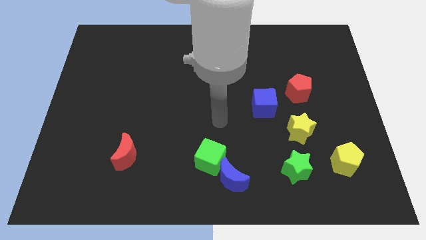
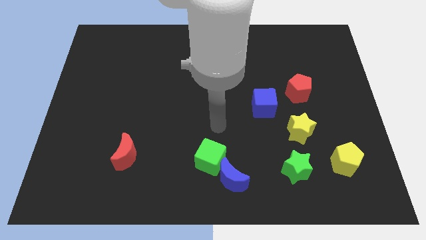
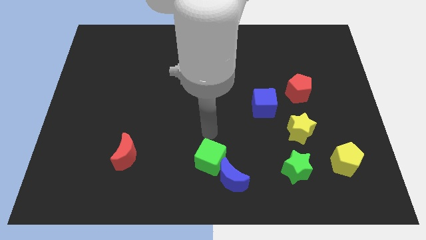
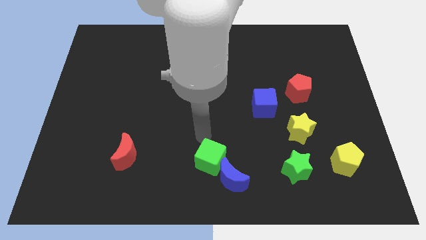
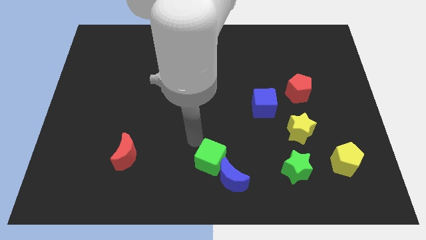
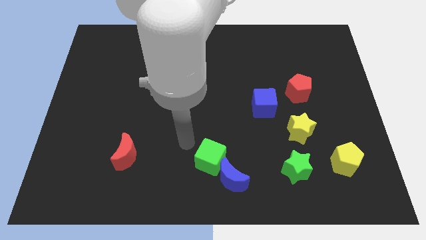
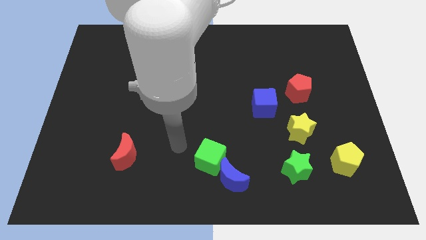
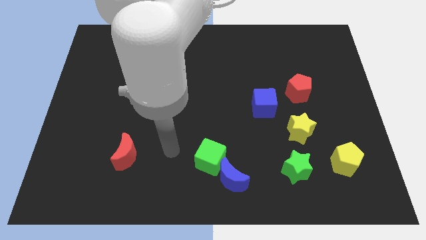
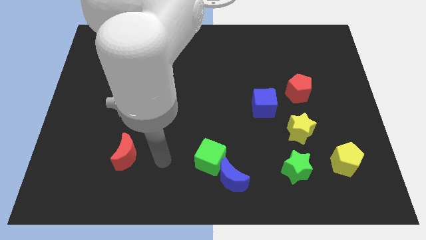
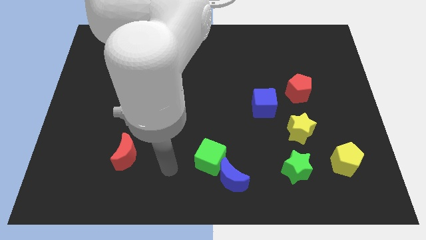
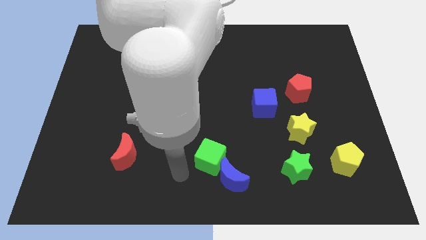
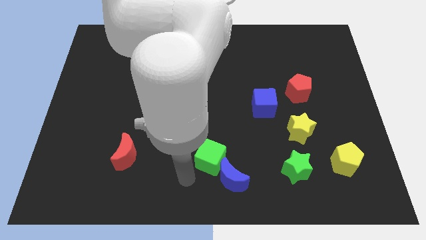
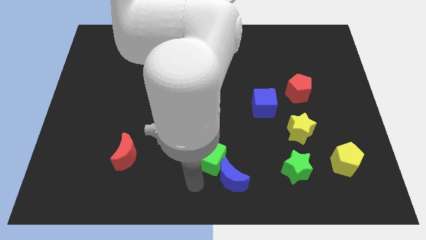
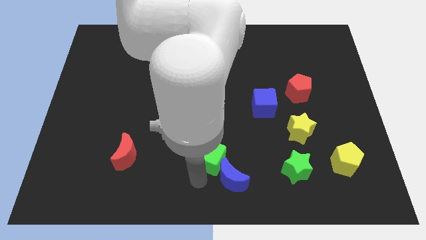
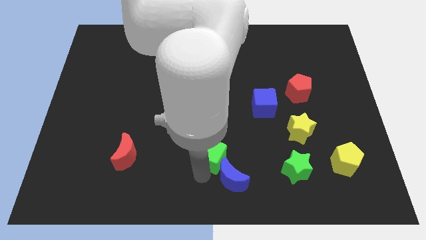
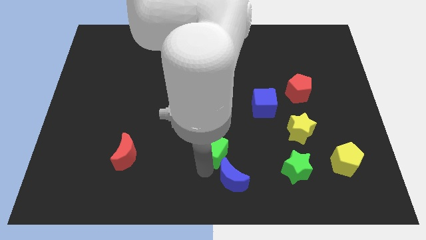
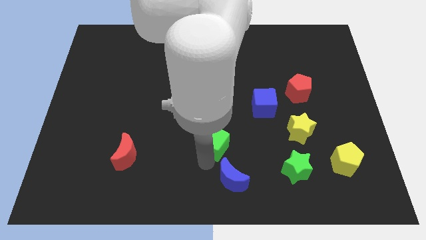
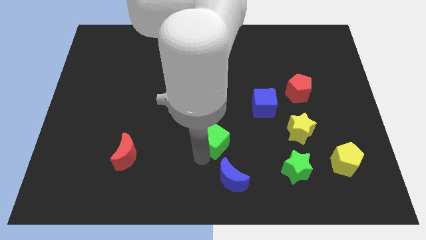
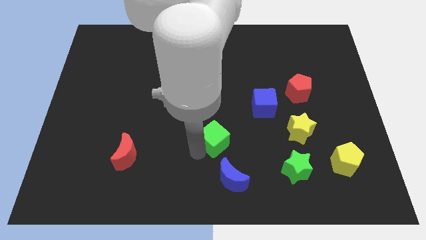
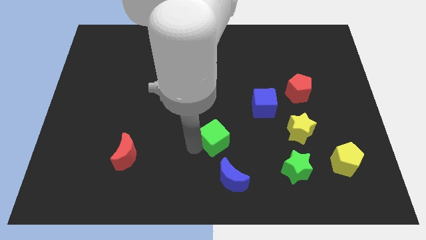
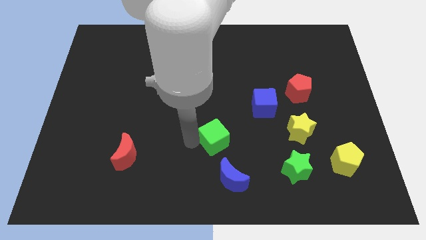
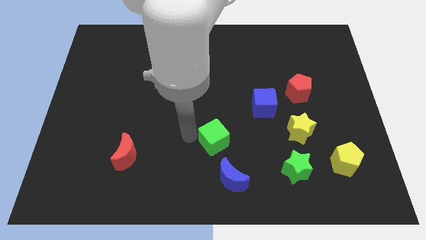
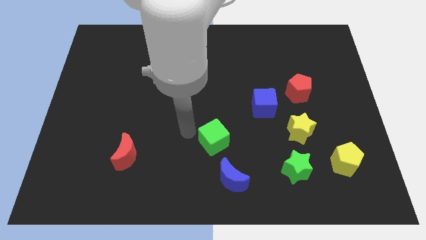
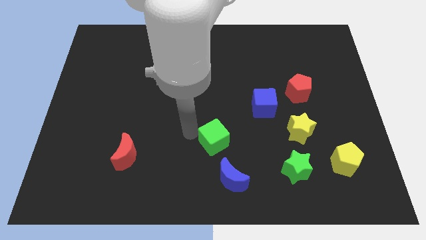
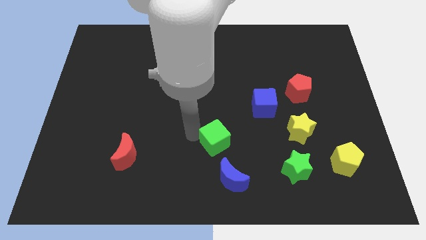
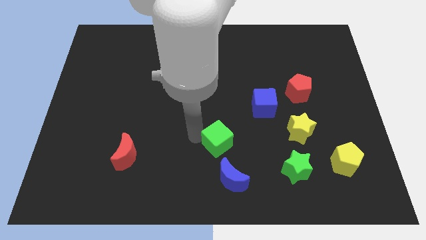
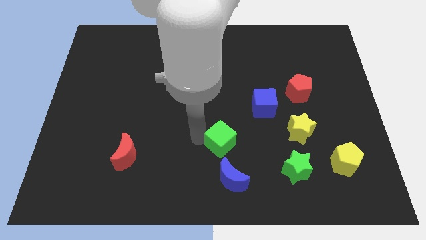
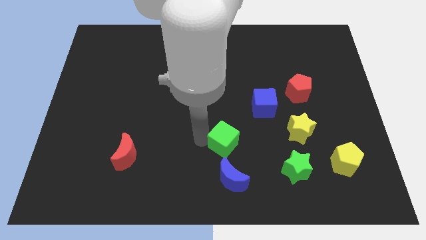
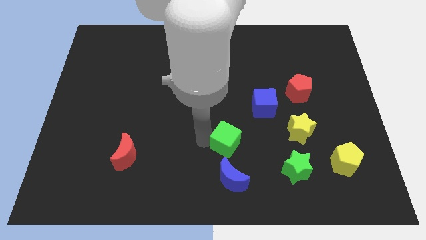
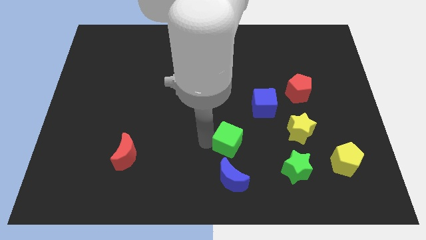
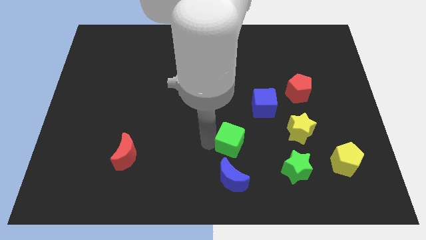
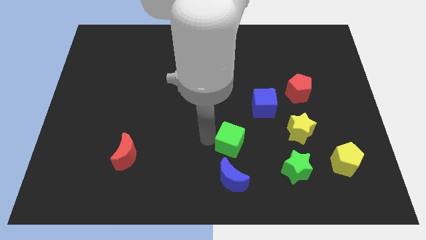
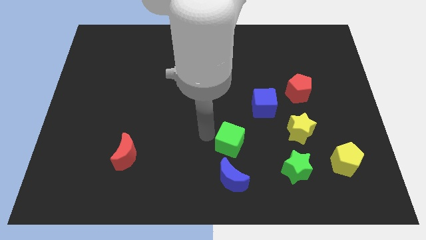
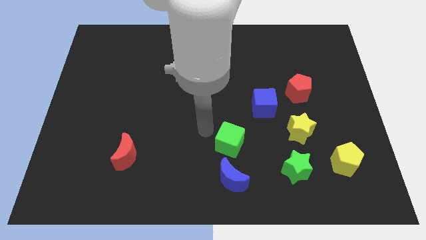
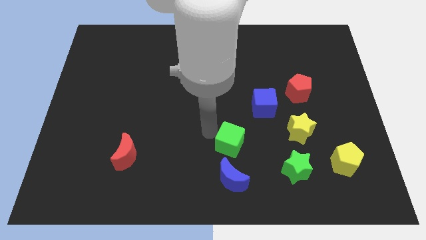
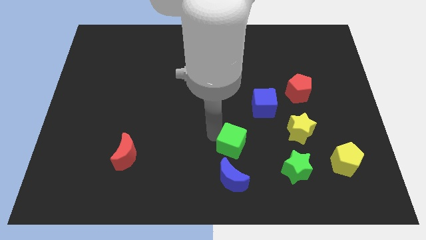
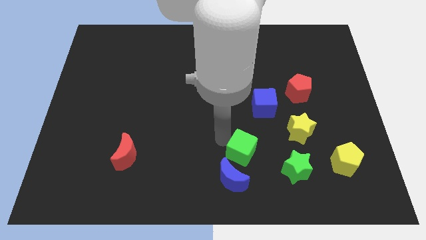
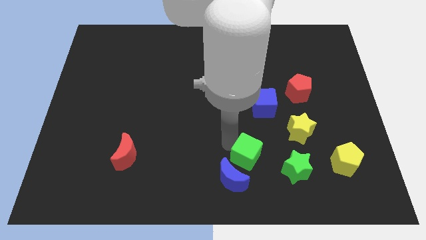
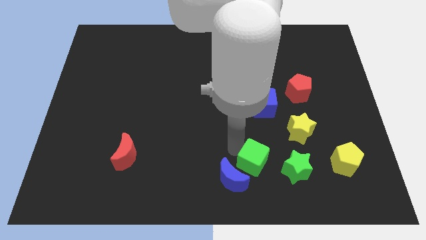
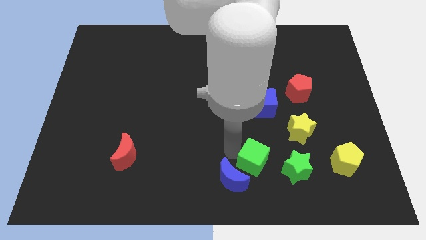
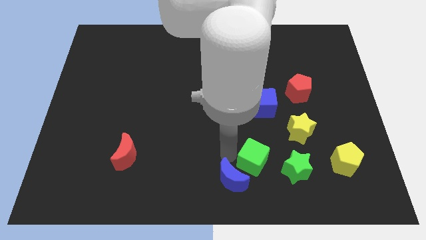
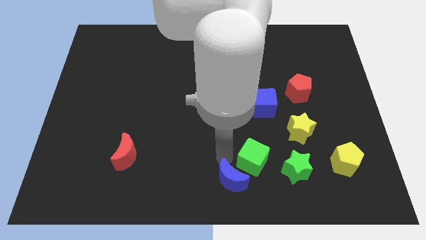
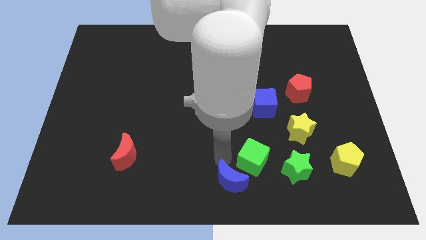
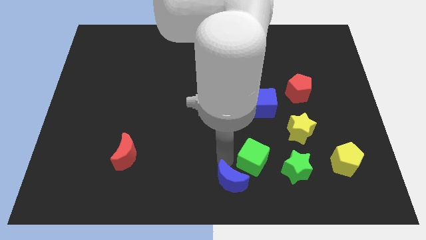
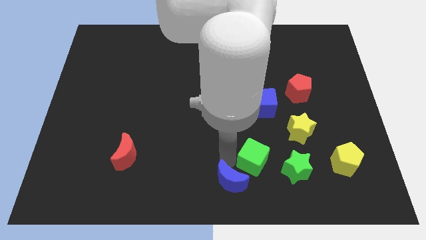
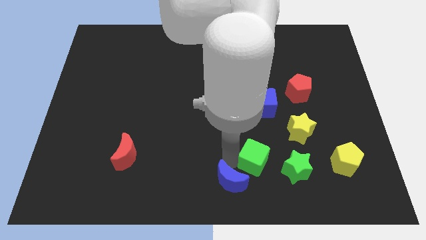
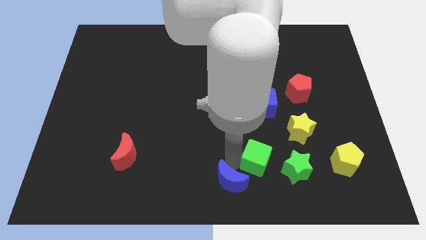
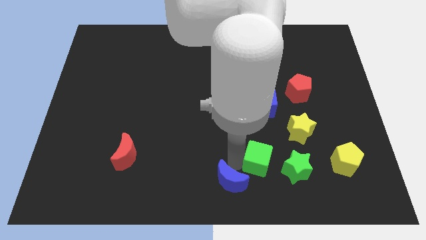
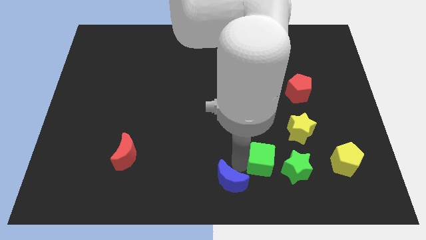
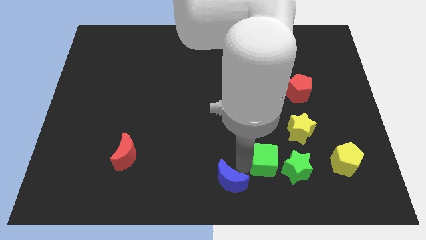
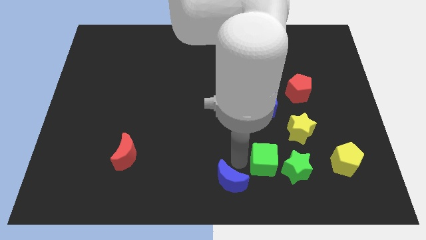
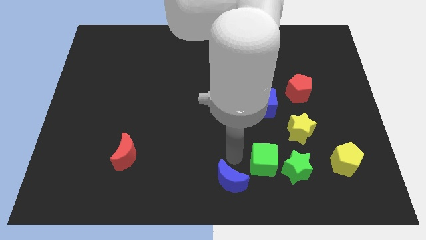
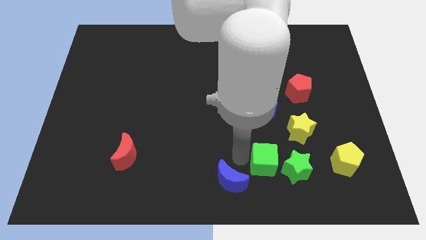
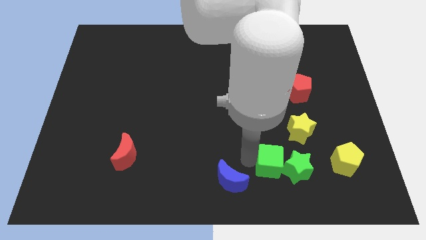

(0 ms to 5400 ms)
slide the green cube to the green star

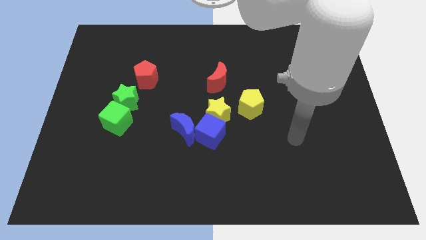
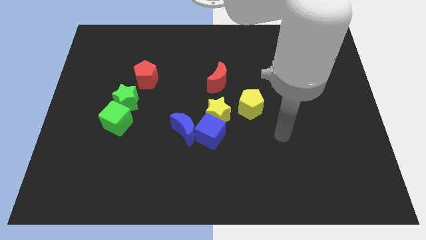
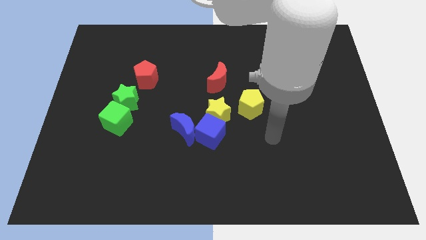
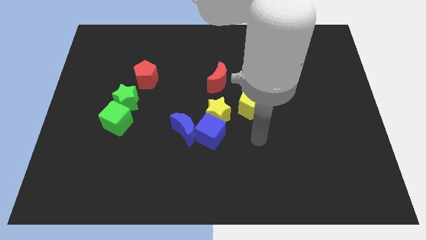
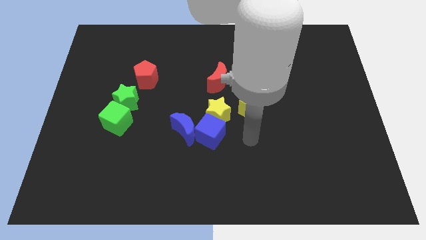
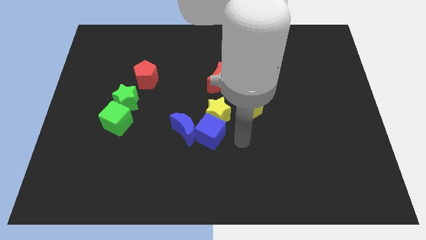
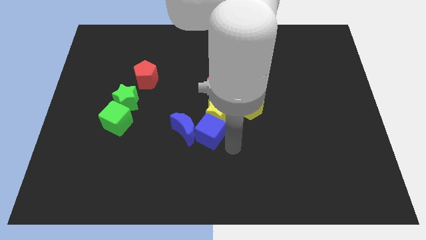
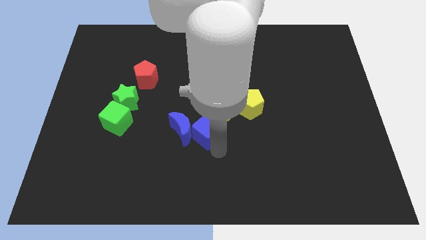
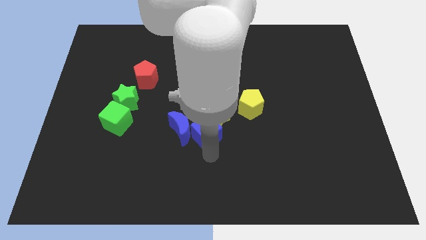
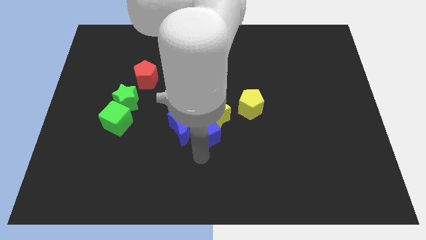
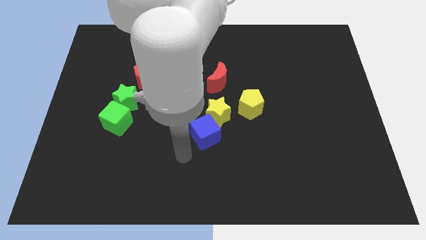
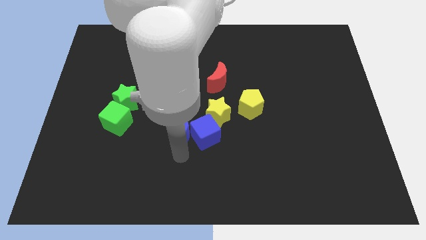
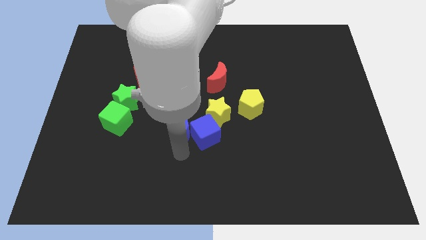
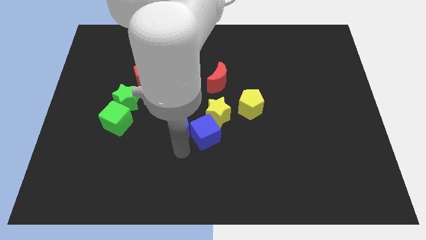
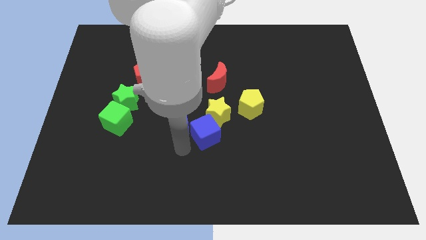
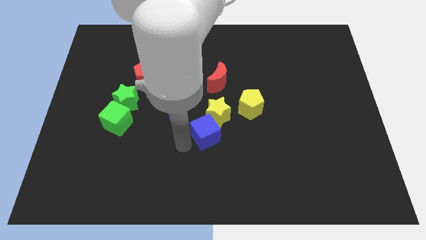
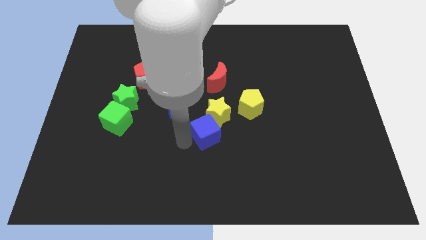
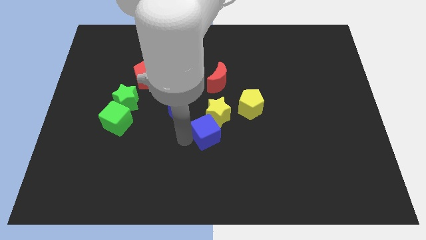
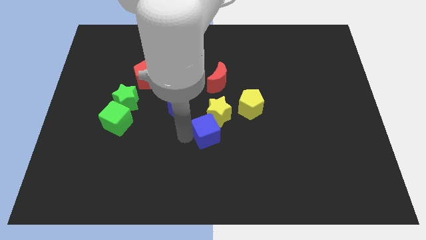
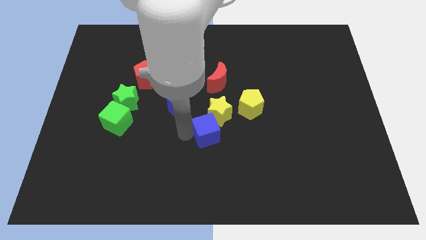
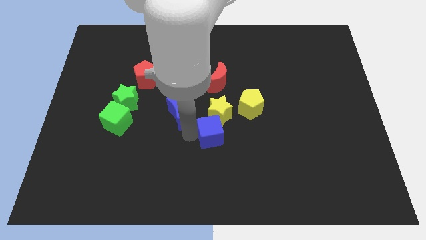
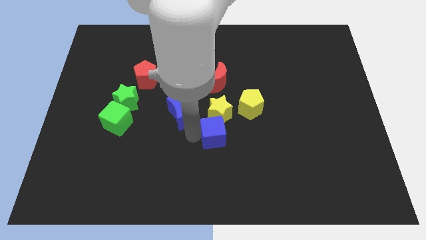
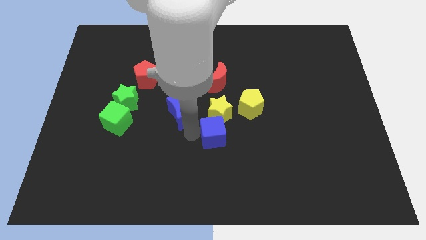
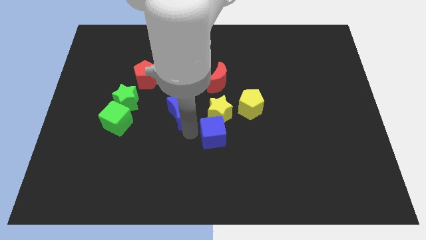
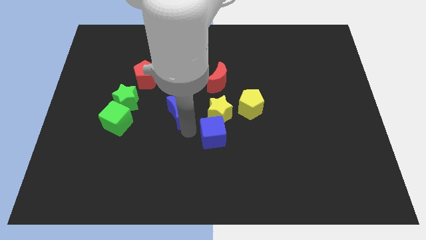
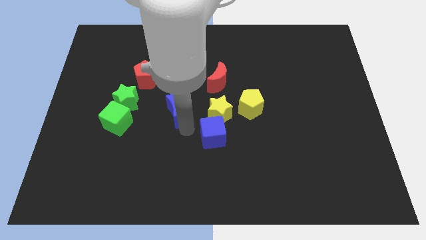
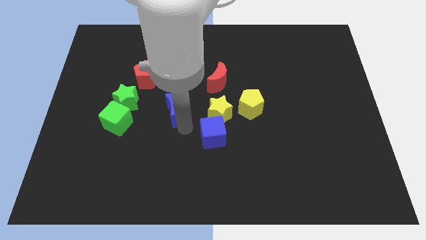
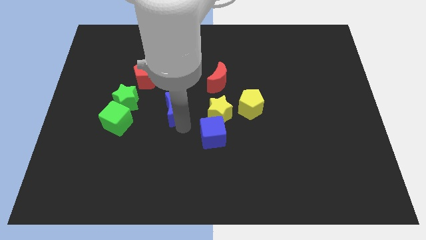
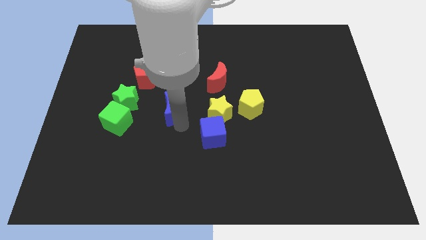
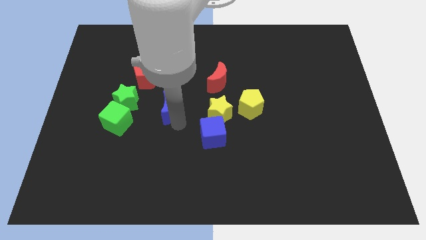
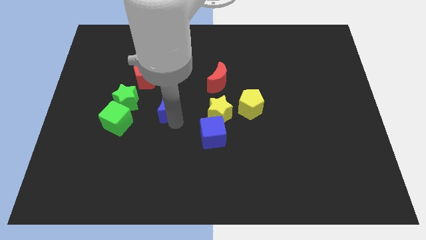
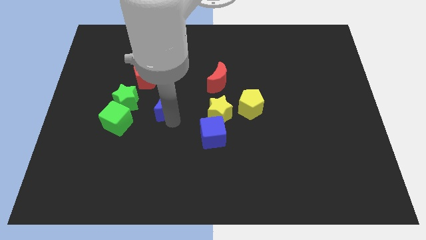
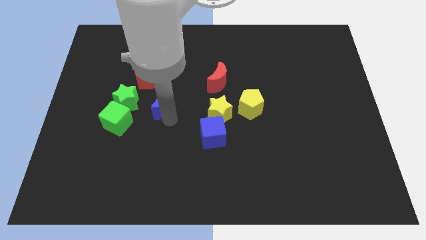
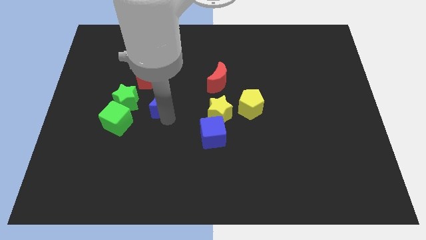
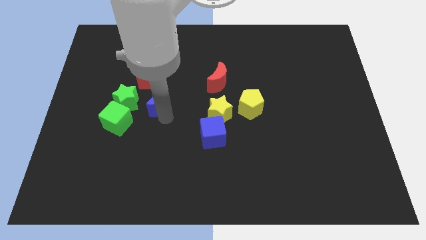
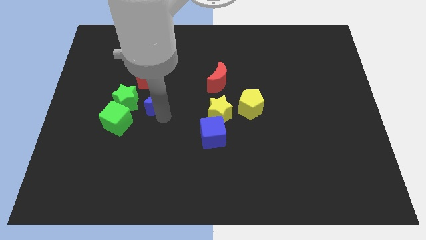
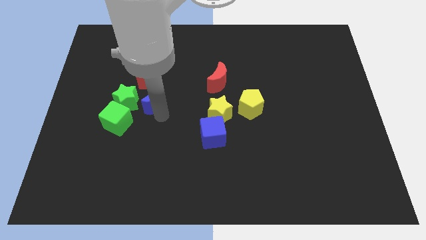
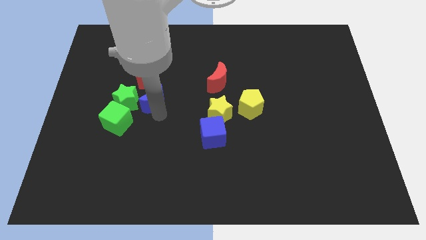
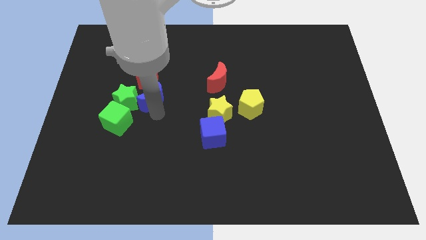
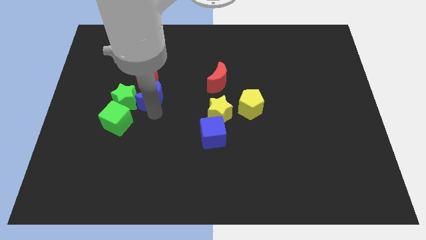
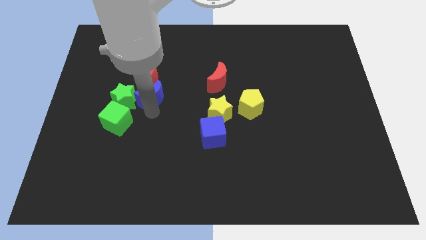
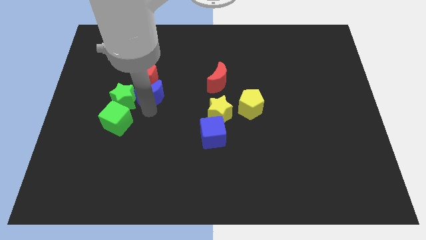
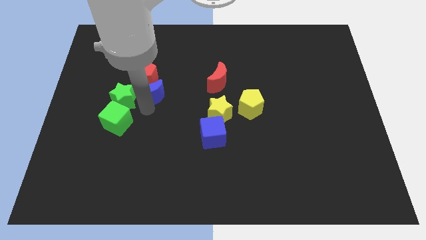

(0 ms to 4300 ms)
push the blue moon close to the red pentagon
